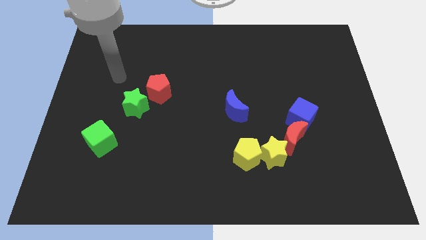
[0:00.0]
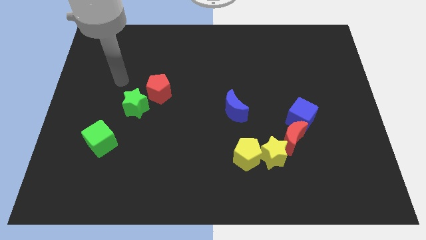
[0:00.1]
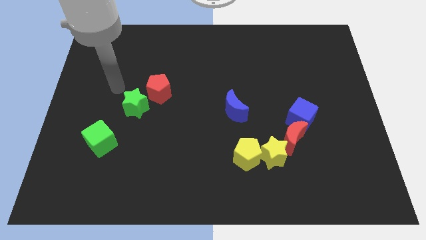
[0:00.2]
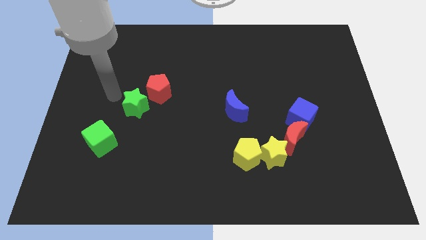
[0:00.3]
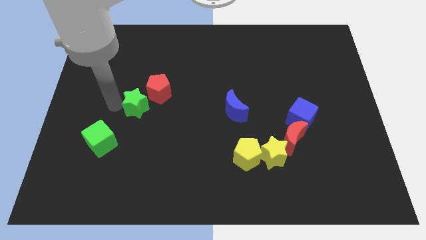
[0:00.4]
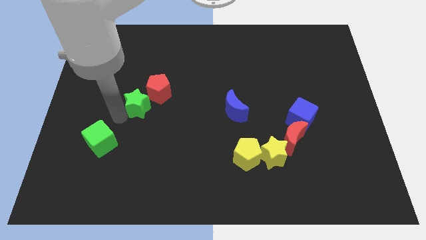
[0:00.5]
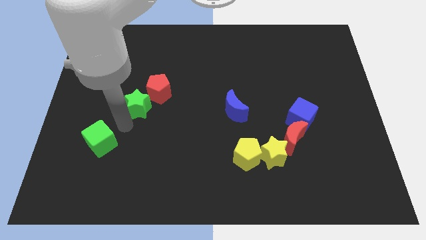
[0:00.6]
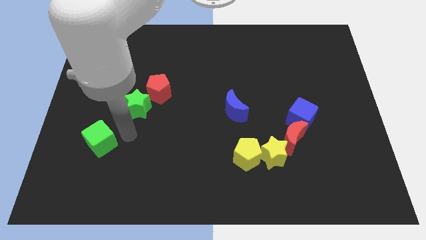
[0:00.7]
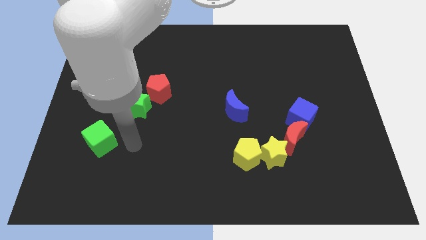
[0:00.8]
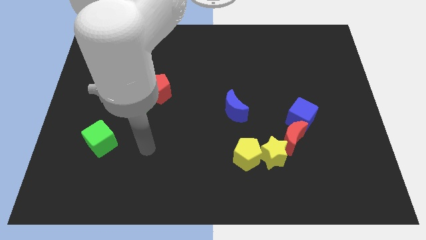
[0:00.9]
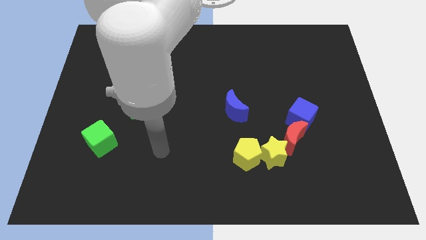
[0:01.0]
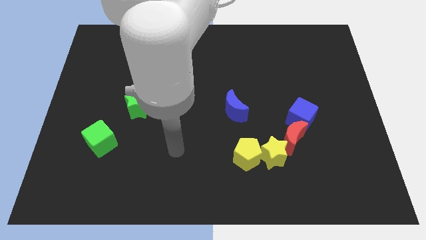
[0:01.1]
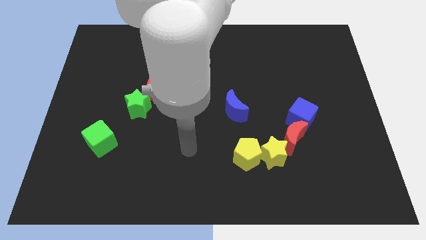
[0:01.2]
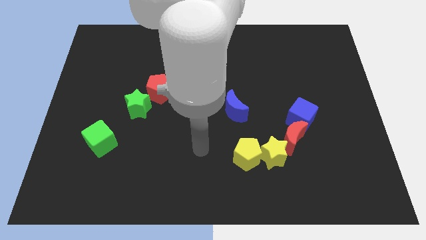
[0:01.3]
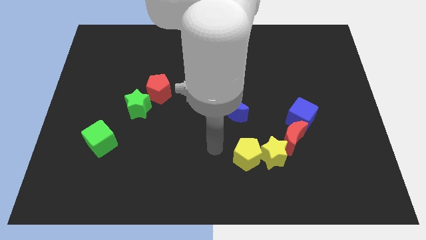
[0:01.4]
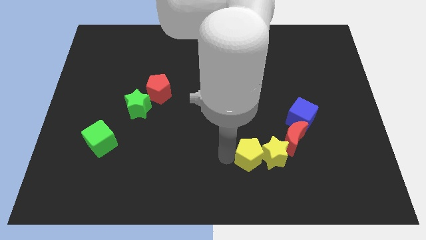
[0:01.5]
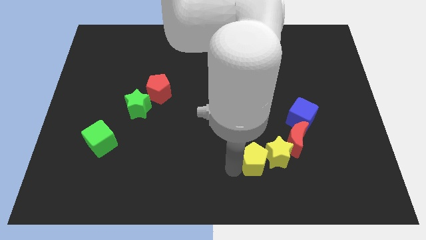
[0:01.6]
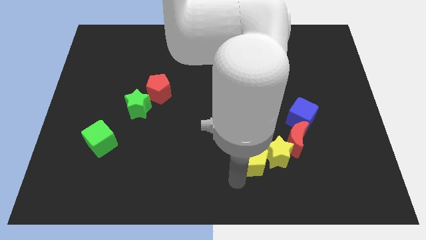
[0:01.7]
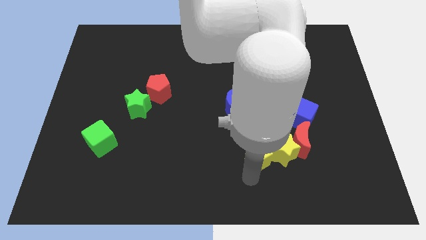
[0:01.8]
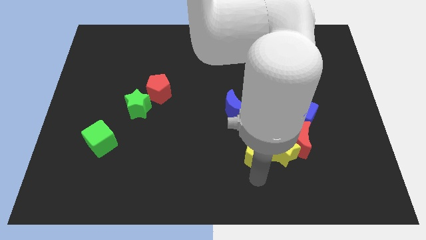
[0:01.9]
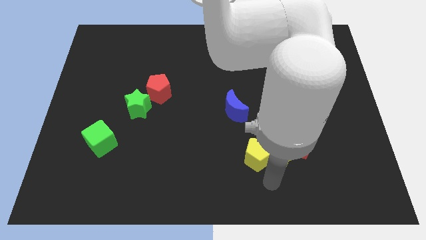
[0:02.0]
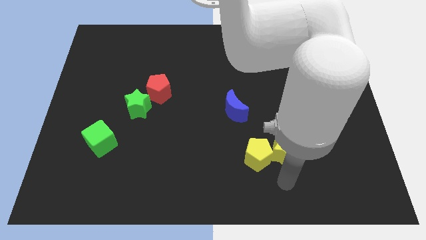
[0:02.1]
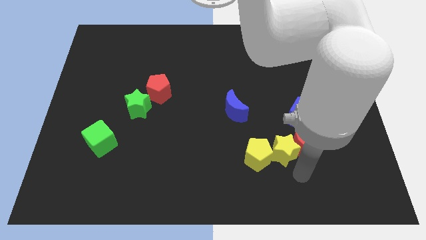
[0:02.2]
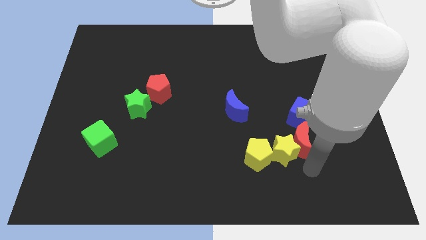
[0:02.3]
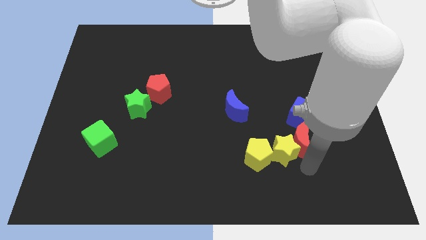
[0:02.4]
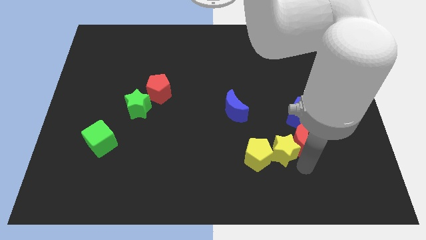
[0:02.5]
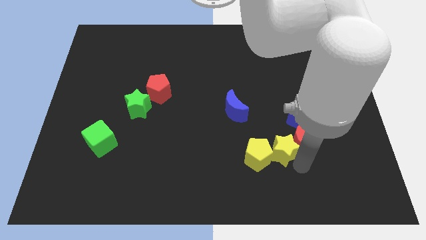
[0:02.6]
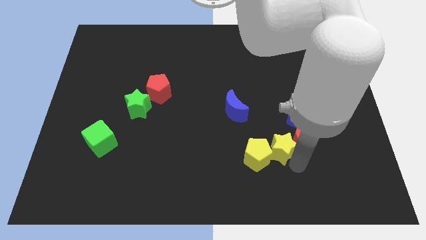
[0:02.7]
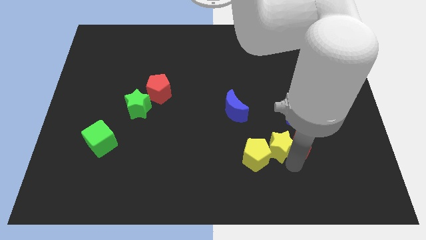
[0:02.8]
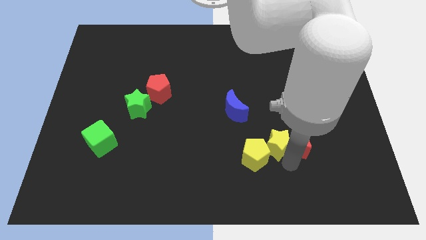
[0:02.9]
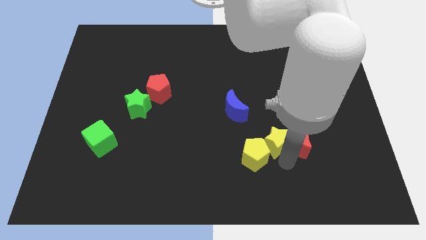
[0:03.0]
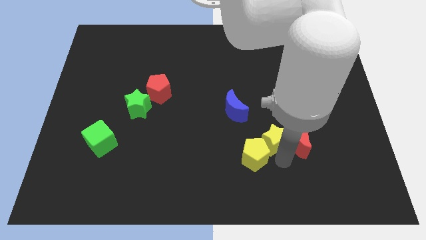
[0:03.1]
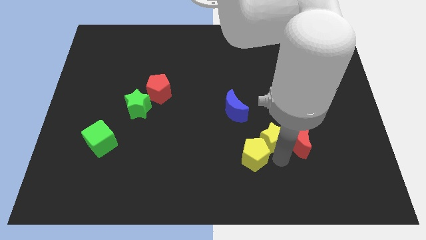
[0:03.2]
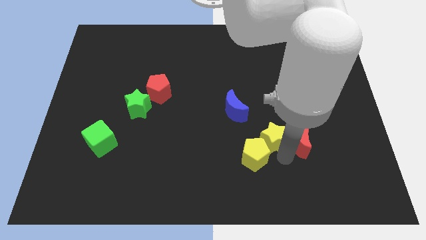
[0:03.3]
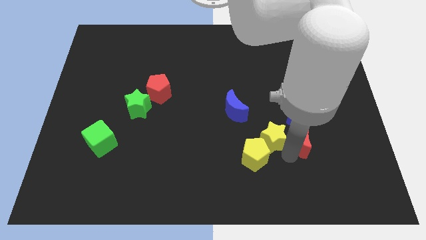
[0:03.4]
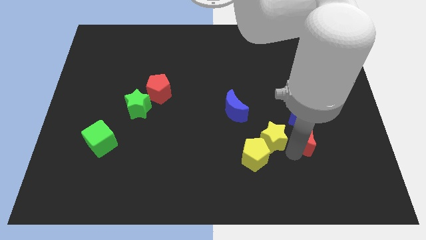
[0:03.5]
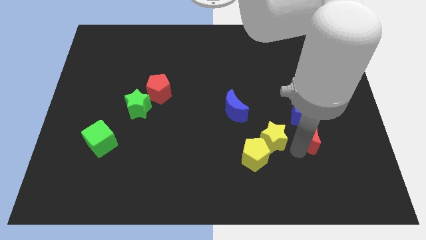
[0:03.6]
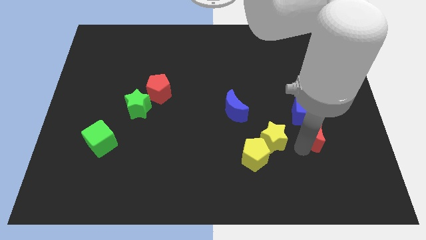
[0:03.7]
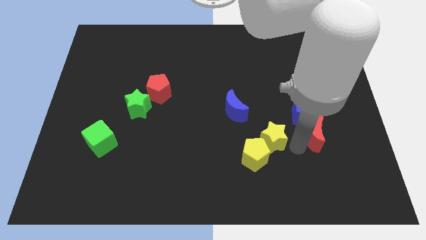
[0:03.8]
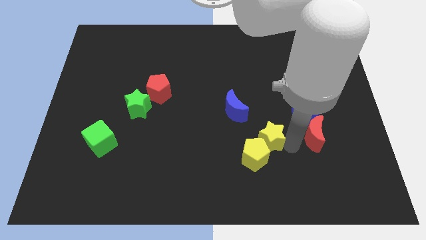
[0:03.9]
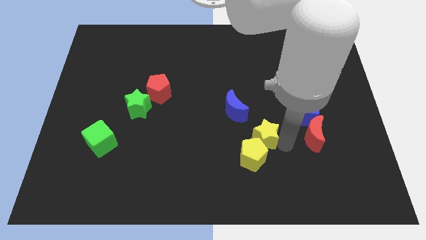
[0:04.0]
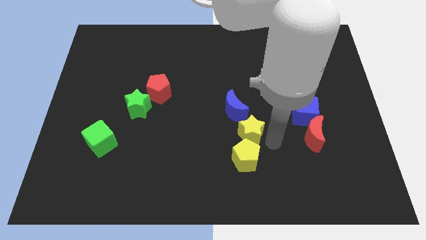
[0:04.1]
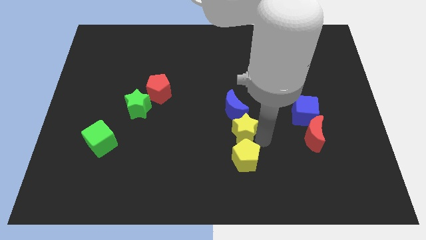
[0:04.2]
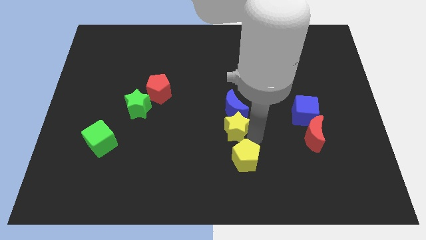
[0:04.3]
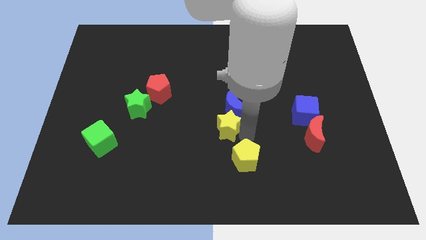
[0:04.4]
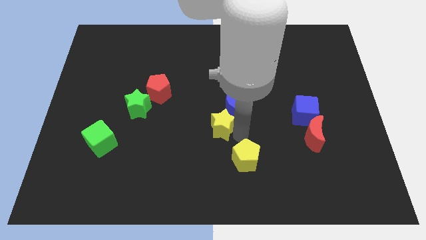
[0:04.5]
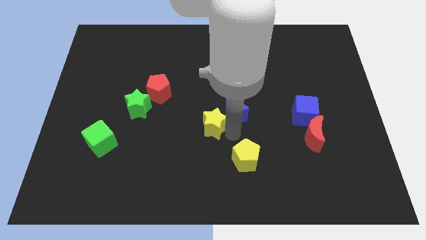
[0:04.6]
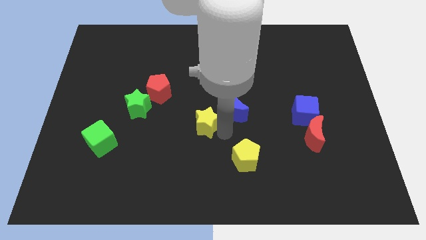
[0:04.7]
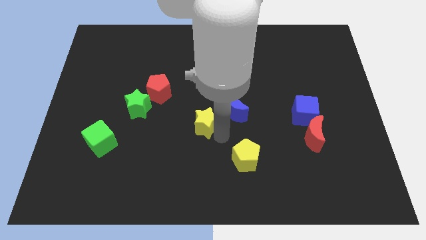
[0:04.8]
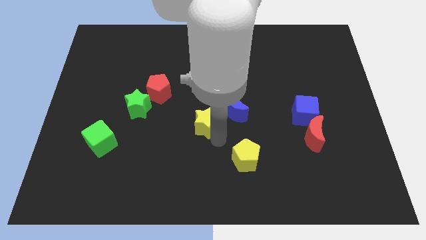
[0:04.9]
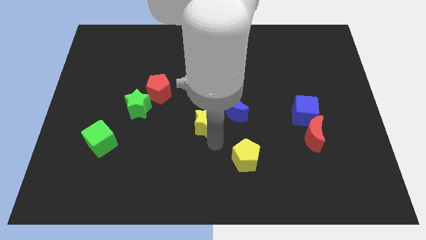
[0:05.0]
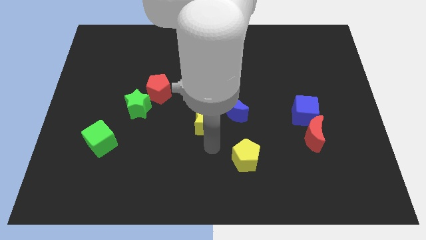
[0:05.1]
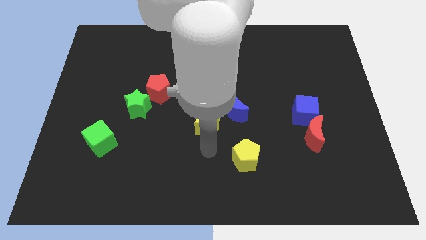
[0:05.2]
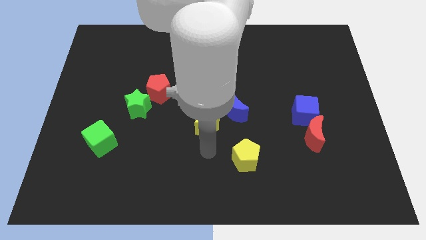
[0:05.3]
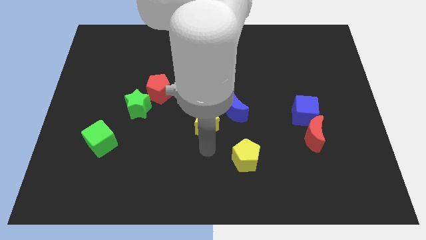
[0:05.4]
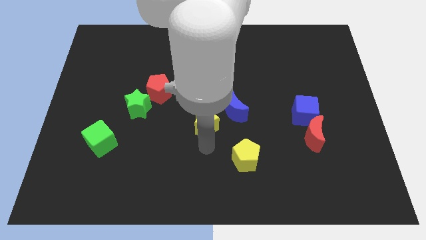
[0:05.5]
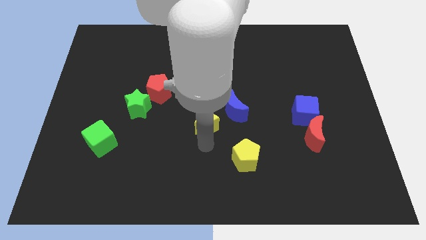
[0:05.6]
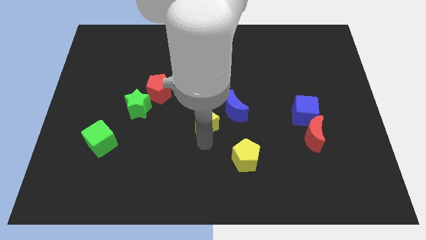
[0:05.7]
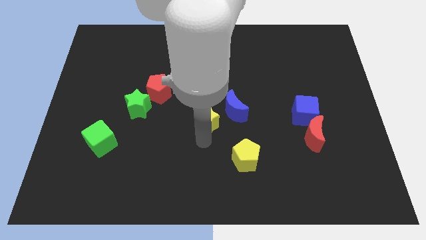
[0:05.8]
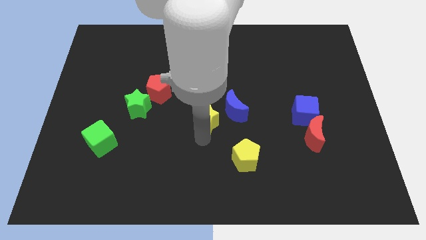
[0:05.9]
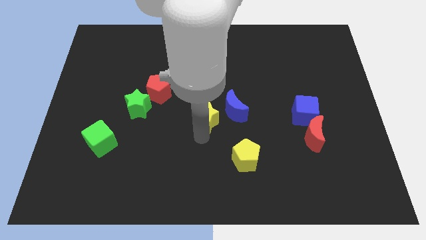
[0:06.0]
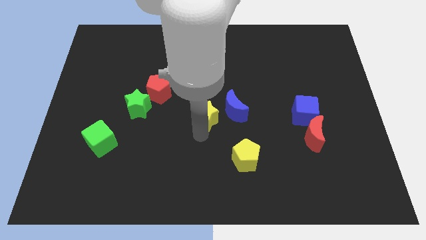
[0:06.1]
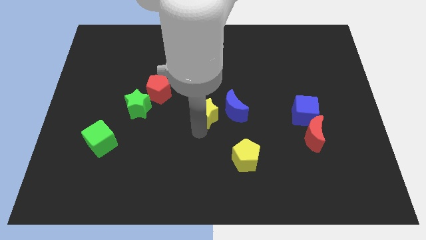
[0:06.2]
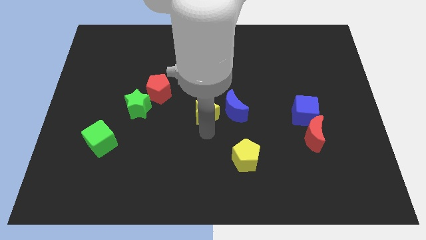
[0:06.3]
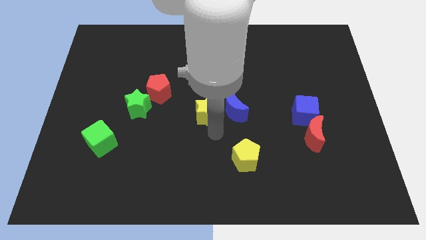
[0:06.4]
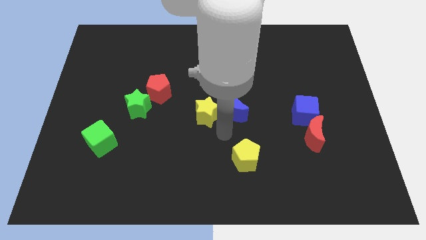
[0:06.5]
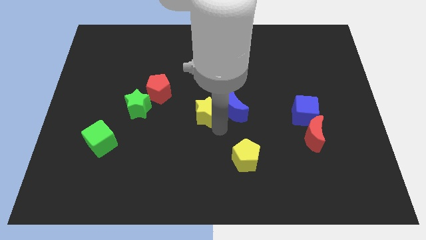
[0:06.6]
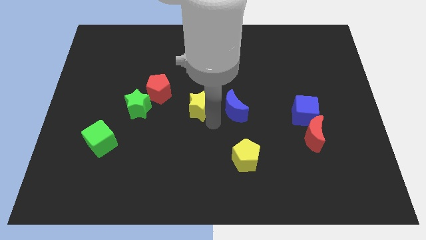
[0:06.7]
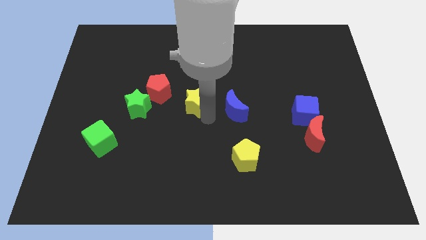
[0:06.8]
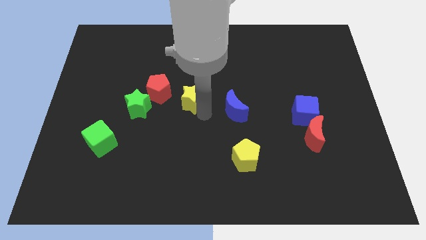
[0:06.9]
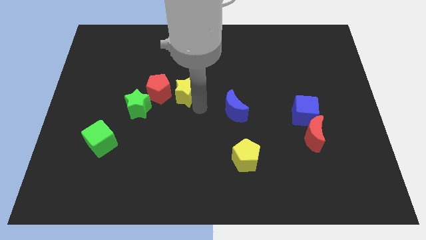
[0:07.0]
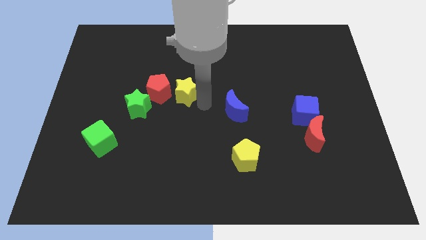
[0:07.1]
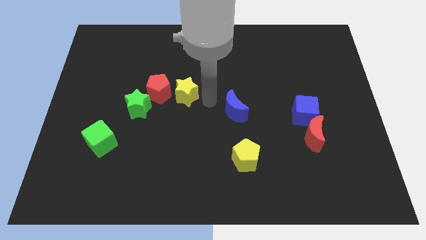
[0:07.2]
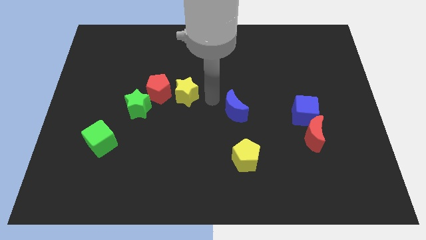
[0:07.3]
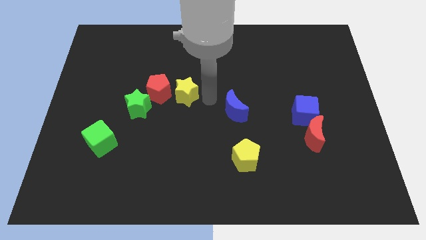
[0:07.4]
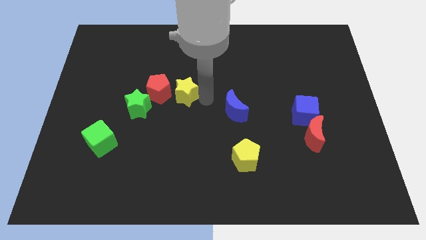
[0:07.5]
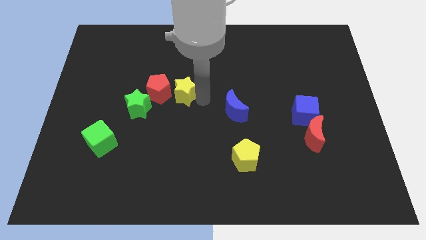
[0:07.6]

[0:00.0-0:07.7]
push the yellow star next to the red pentagon
